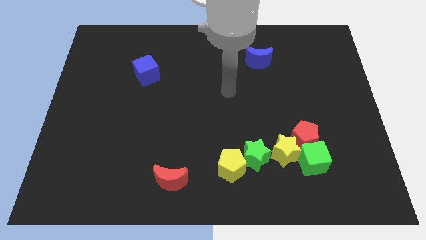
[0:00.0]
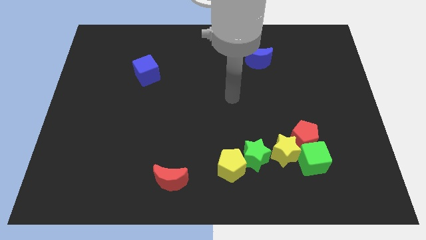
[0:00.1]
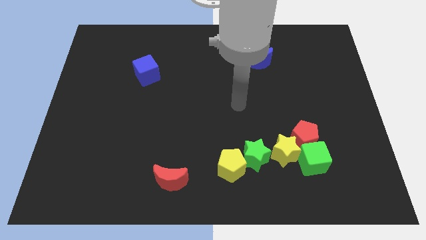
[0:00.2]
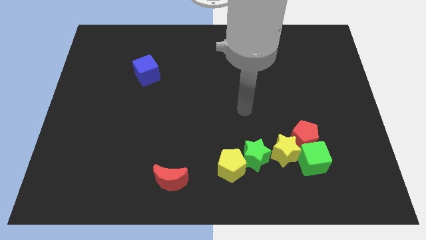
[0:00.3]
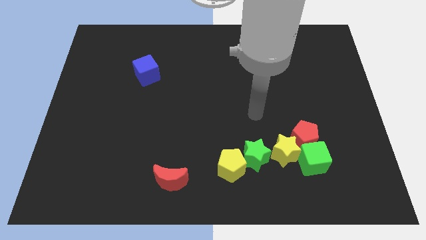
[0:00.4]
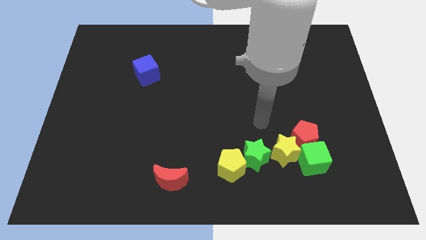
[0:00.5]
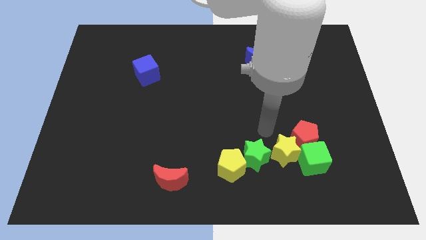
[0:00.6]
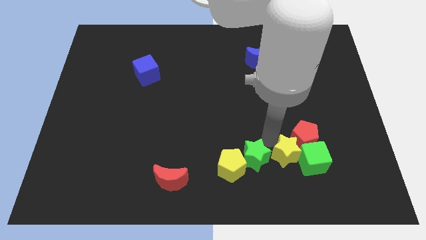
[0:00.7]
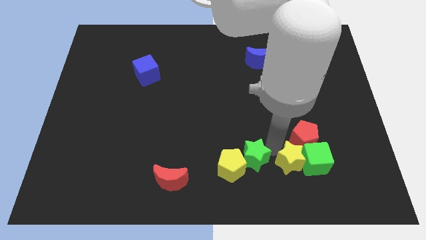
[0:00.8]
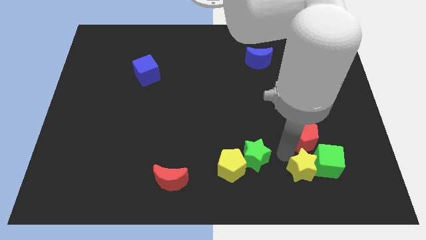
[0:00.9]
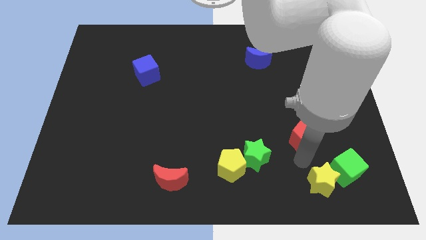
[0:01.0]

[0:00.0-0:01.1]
move the red pentagon away from the yellow star and green cube

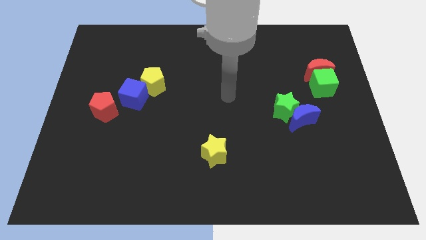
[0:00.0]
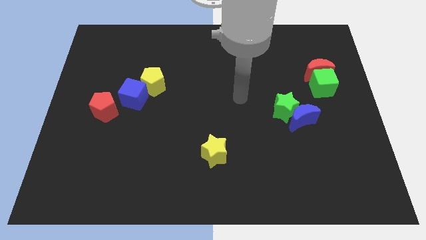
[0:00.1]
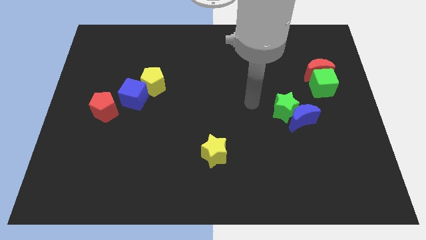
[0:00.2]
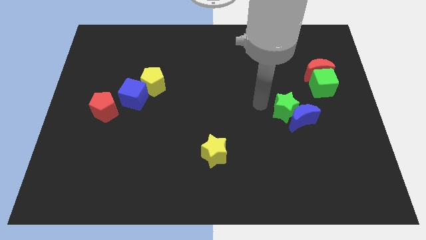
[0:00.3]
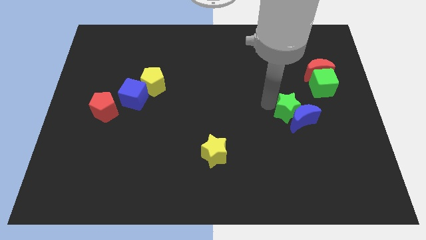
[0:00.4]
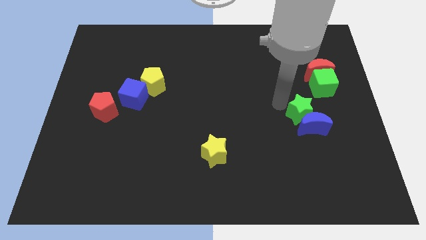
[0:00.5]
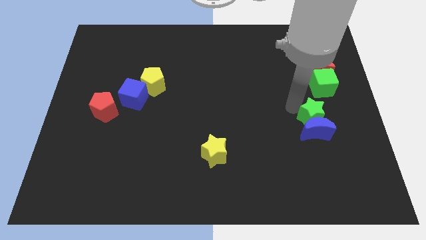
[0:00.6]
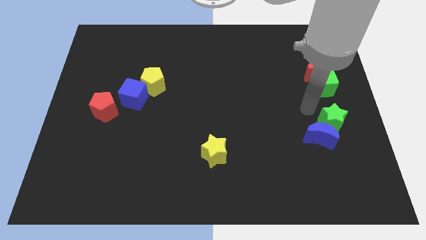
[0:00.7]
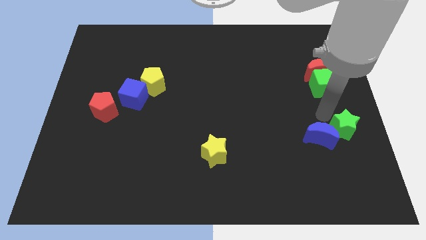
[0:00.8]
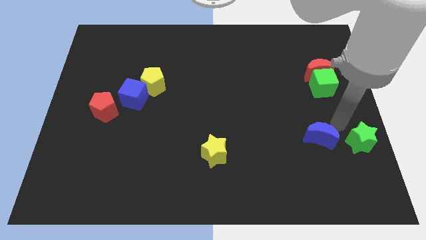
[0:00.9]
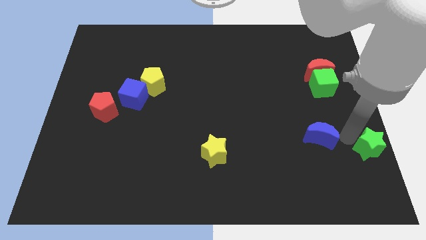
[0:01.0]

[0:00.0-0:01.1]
pull the blue moon apart from the green star

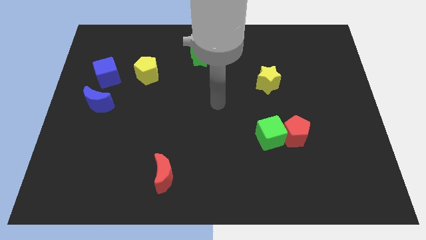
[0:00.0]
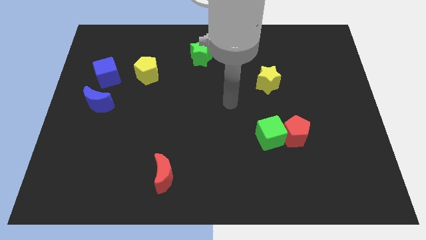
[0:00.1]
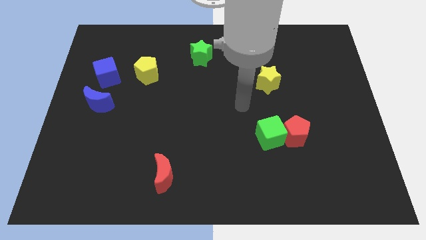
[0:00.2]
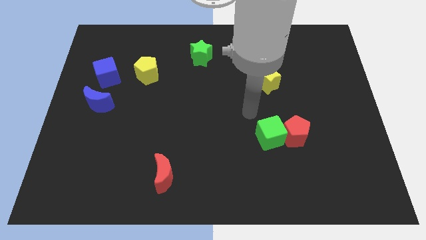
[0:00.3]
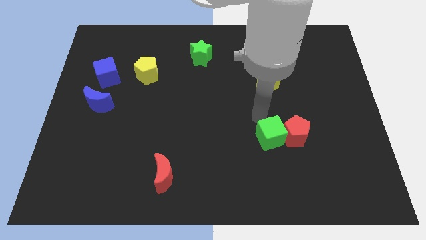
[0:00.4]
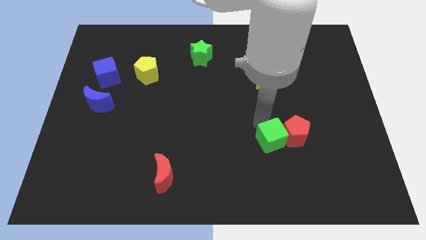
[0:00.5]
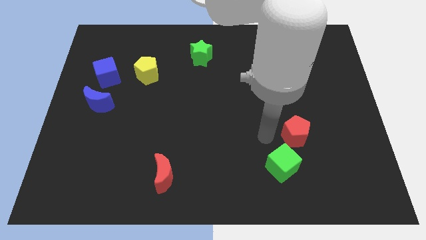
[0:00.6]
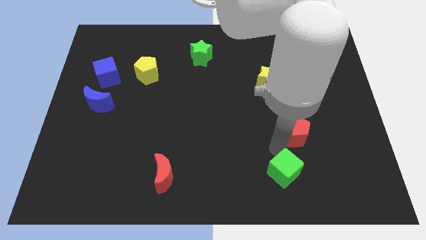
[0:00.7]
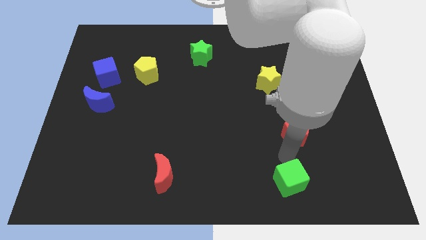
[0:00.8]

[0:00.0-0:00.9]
move the red pentagon away from the green cube

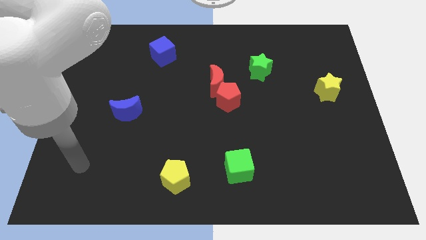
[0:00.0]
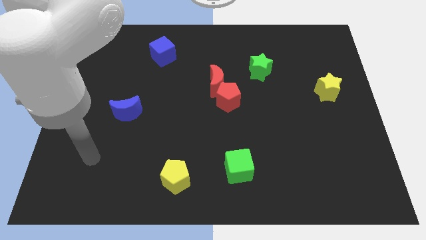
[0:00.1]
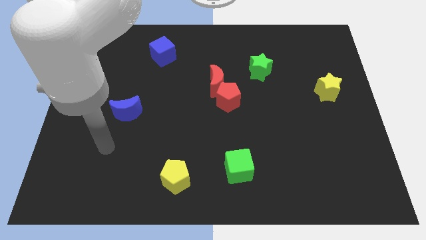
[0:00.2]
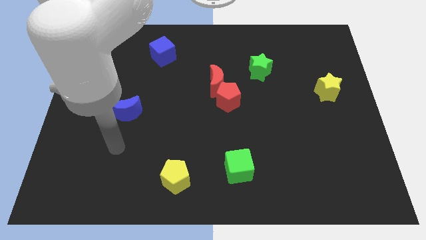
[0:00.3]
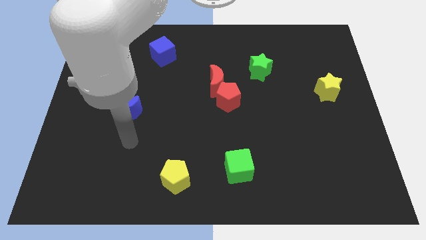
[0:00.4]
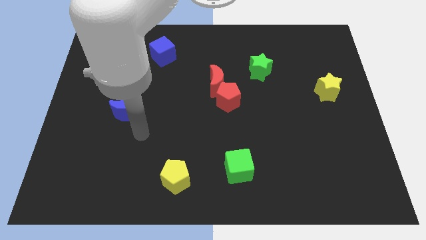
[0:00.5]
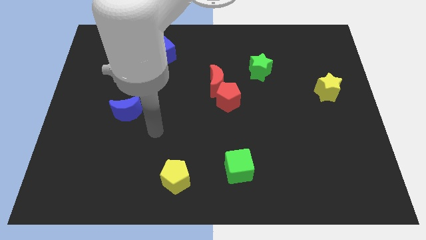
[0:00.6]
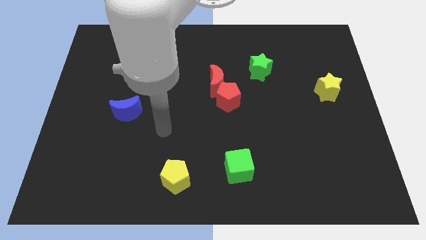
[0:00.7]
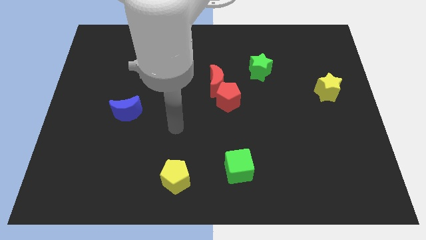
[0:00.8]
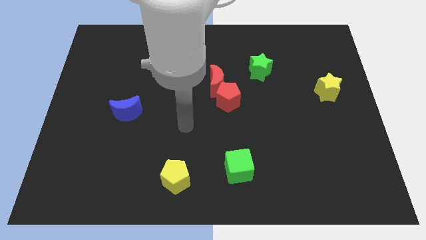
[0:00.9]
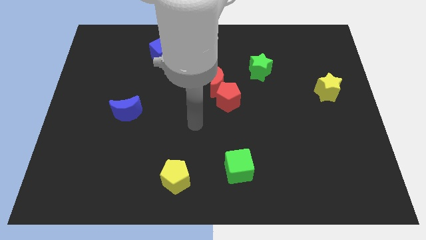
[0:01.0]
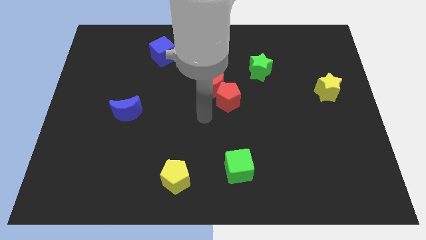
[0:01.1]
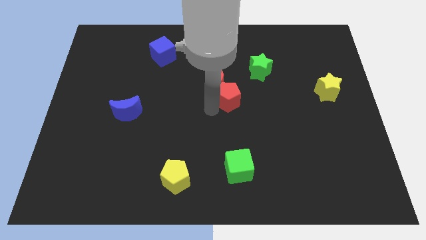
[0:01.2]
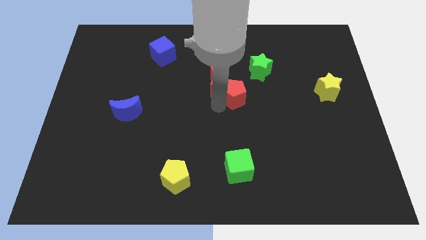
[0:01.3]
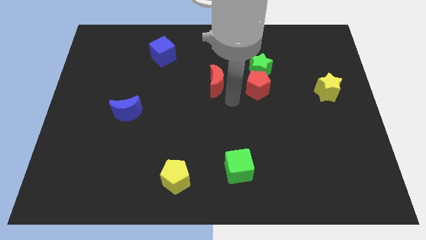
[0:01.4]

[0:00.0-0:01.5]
separate the red moon from the red pentagon

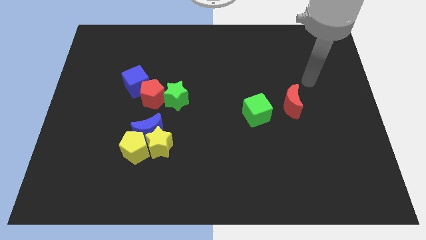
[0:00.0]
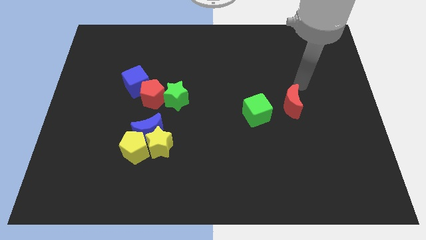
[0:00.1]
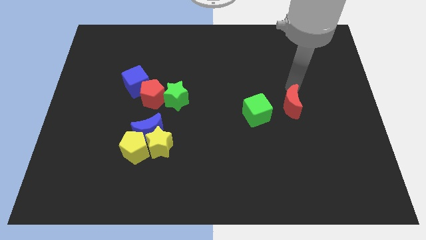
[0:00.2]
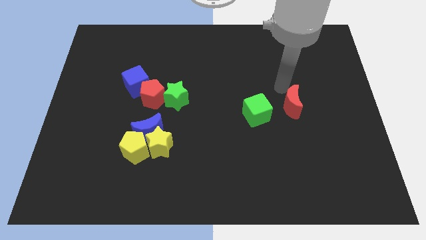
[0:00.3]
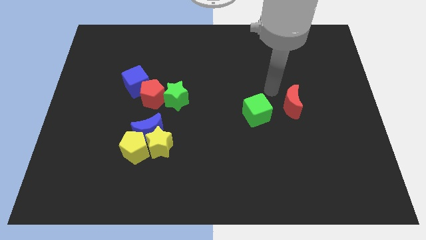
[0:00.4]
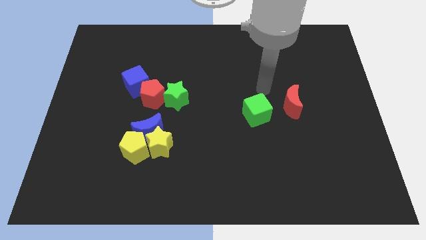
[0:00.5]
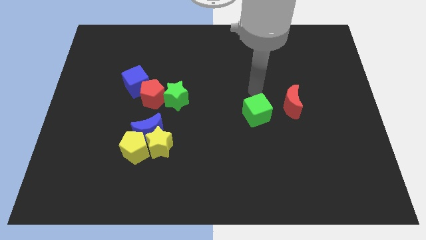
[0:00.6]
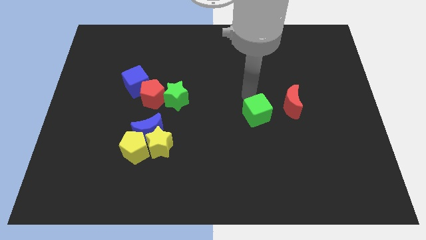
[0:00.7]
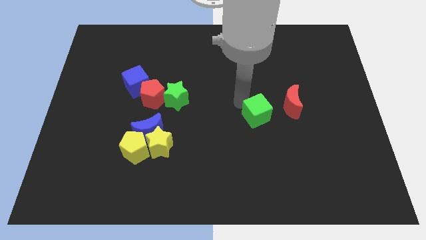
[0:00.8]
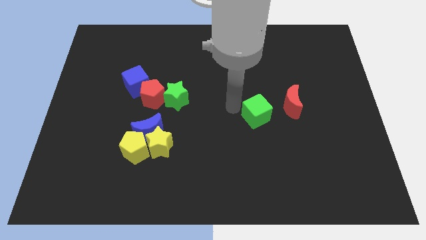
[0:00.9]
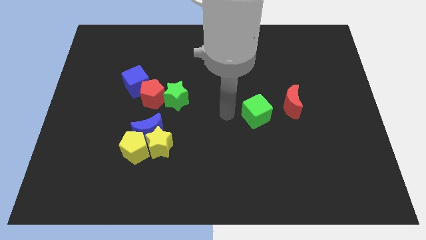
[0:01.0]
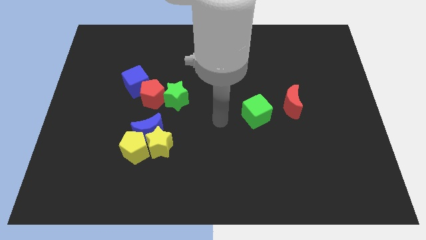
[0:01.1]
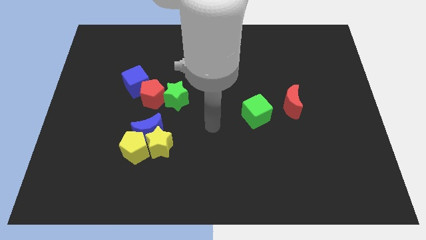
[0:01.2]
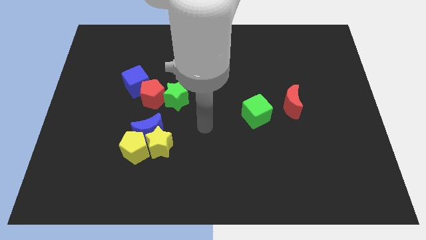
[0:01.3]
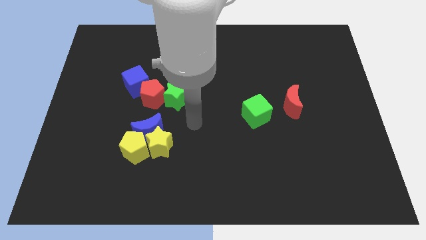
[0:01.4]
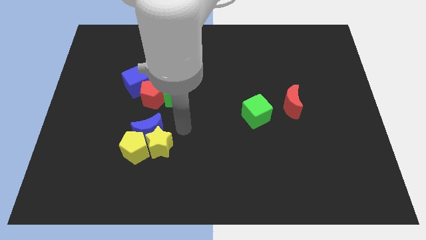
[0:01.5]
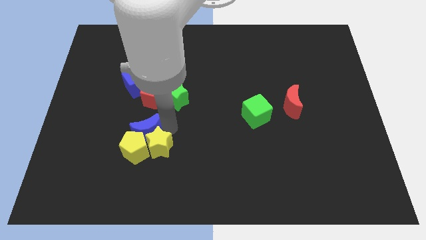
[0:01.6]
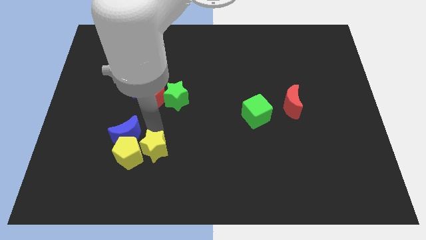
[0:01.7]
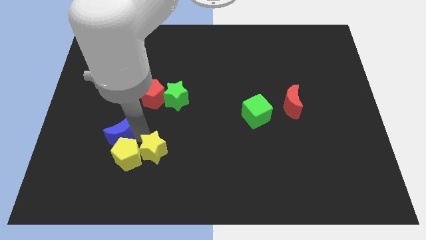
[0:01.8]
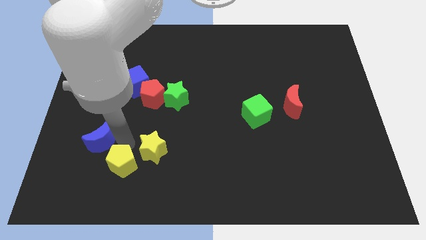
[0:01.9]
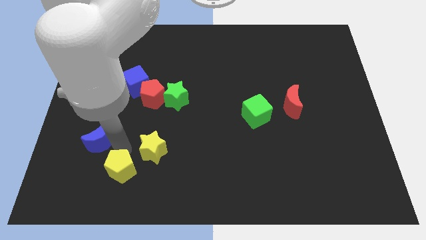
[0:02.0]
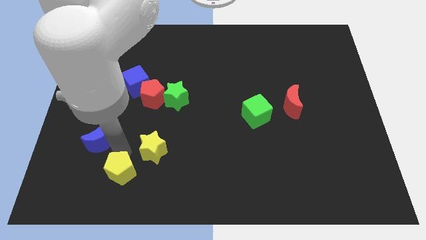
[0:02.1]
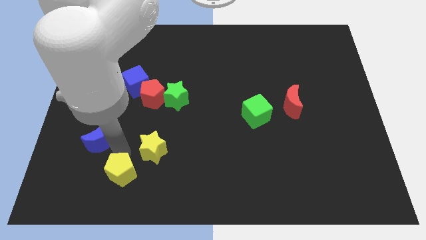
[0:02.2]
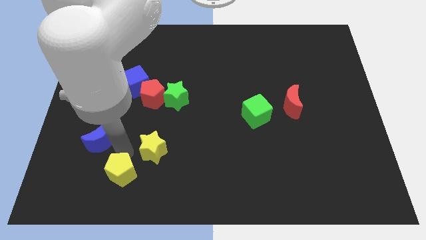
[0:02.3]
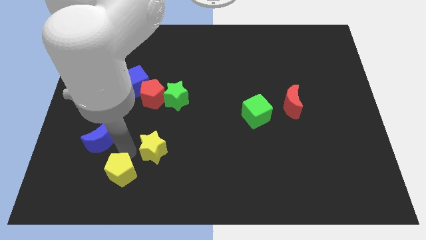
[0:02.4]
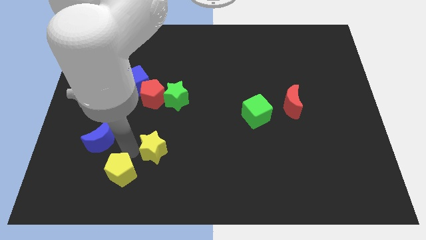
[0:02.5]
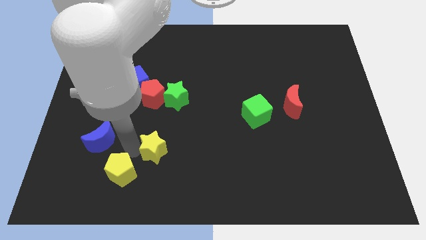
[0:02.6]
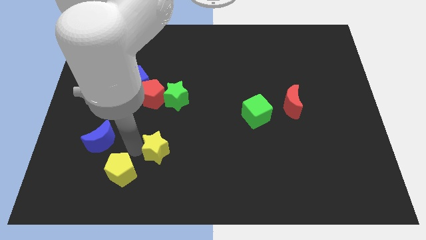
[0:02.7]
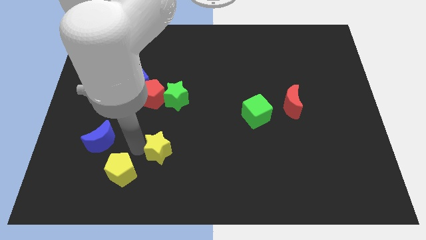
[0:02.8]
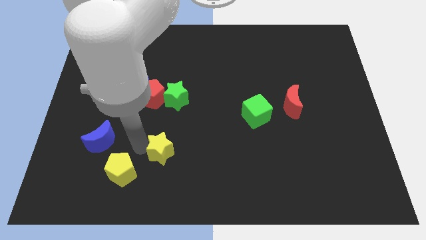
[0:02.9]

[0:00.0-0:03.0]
move the yellow star away from the blue moon and yellow pentagon

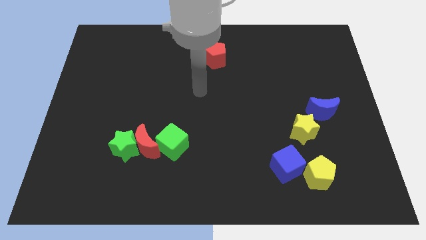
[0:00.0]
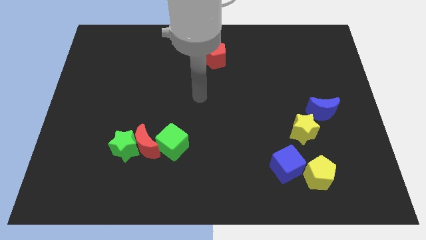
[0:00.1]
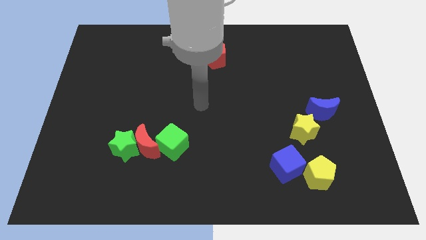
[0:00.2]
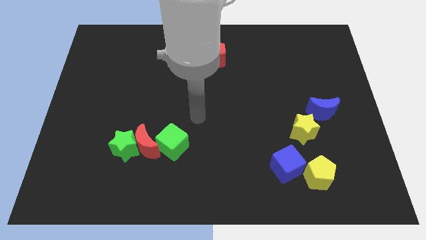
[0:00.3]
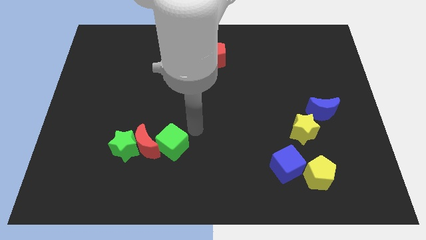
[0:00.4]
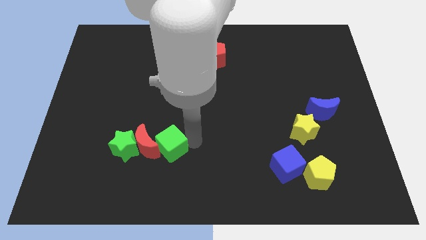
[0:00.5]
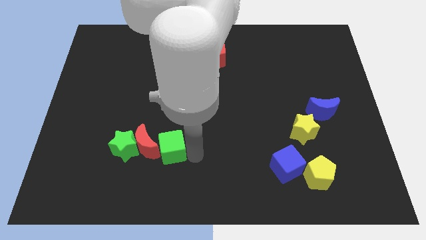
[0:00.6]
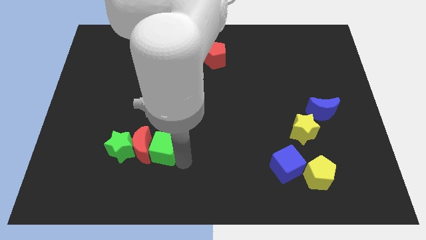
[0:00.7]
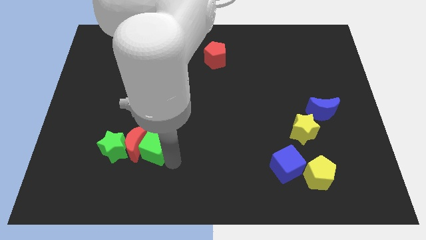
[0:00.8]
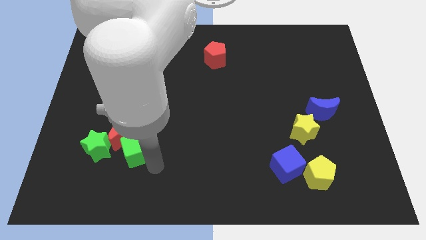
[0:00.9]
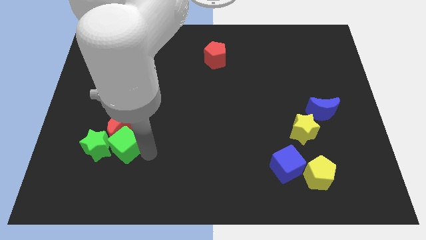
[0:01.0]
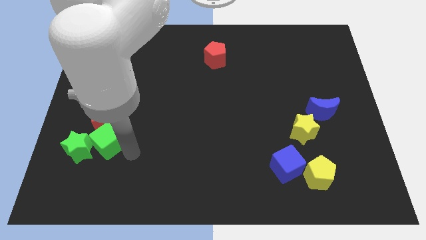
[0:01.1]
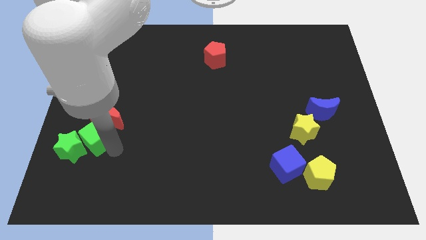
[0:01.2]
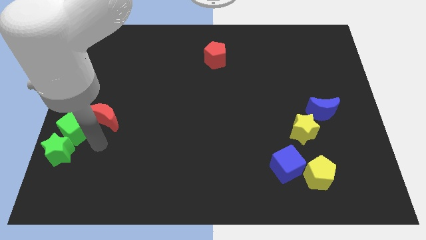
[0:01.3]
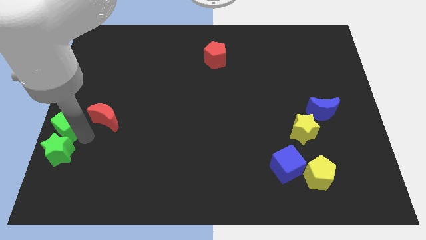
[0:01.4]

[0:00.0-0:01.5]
separate the red moon from the green star and green cube

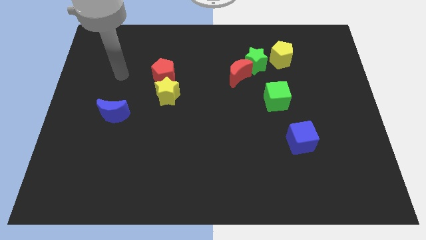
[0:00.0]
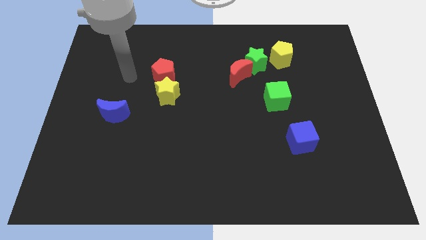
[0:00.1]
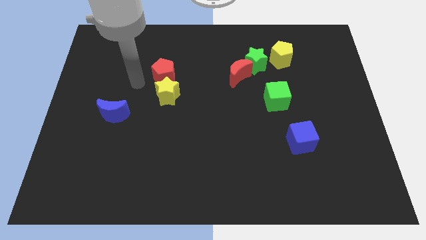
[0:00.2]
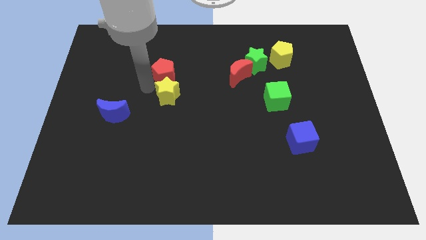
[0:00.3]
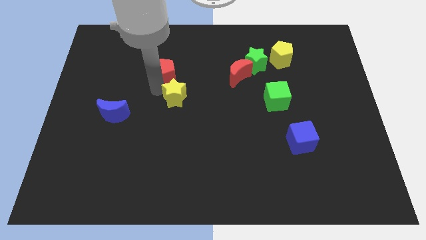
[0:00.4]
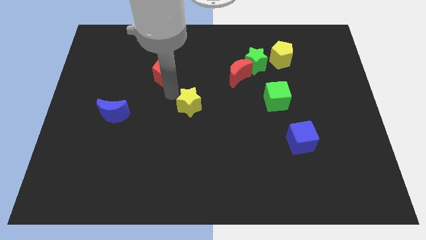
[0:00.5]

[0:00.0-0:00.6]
pull the red pentagon apart from the yellow star
